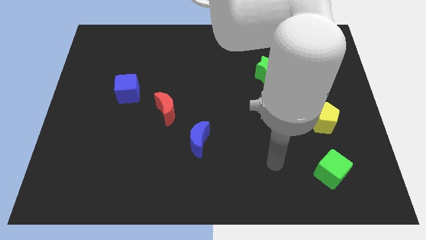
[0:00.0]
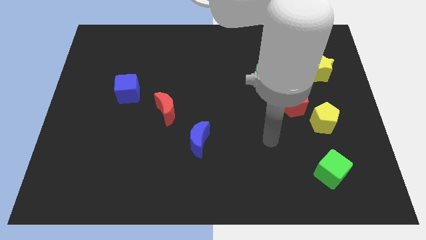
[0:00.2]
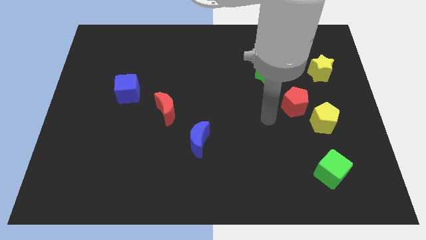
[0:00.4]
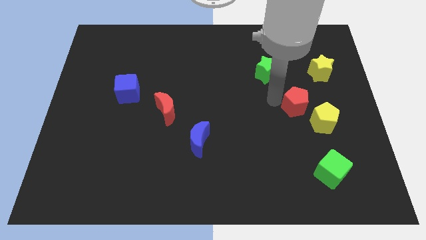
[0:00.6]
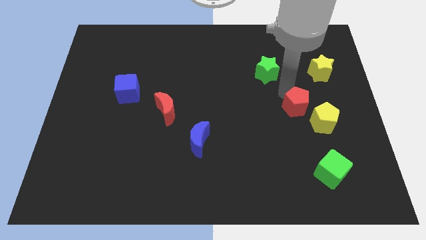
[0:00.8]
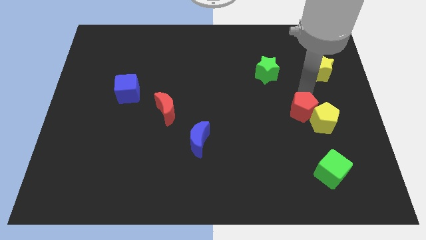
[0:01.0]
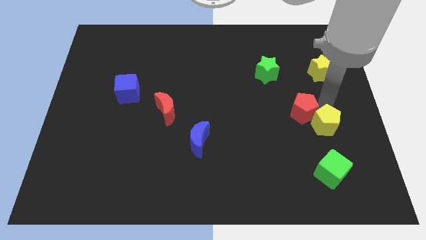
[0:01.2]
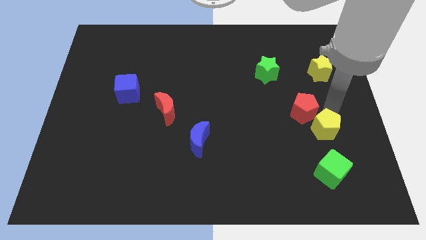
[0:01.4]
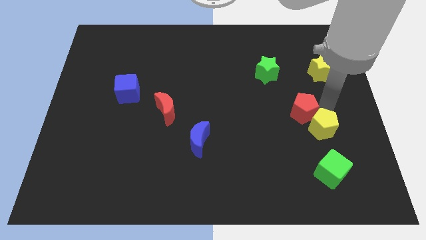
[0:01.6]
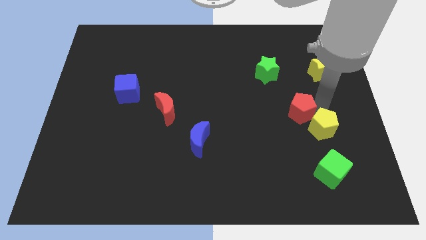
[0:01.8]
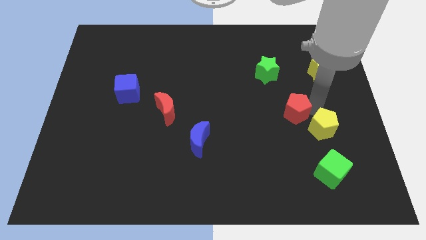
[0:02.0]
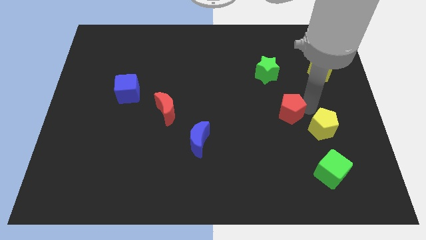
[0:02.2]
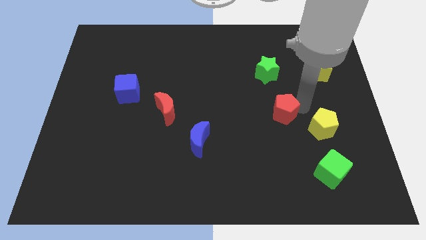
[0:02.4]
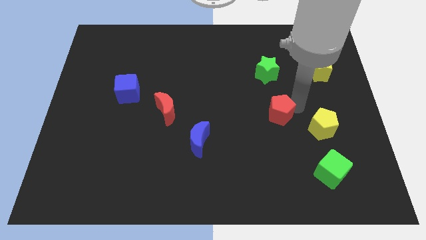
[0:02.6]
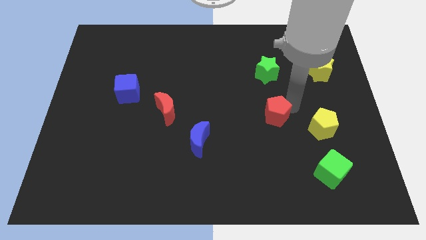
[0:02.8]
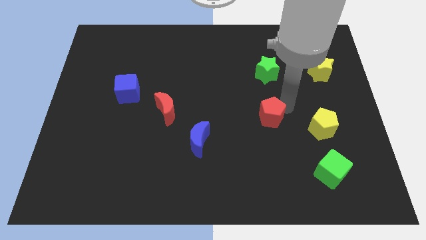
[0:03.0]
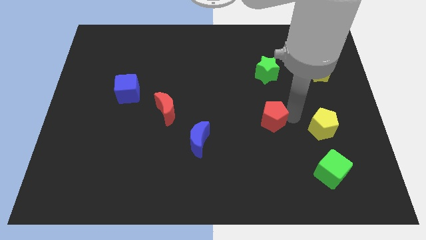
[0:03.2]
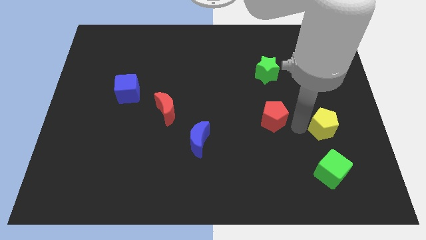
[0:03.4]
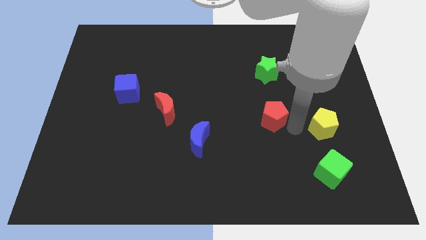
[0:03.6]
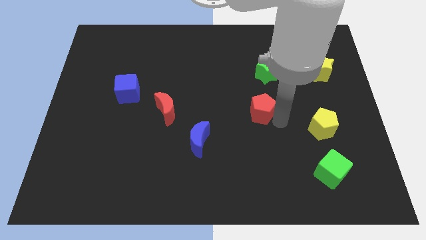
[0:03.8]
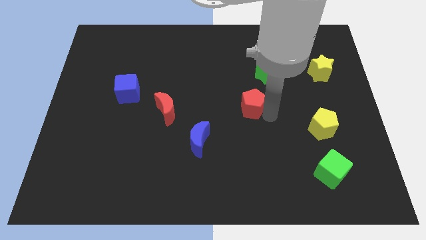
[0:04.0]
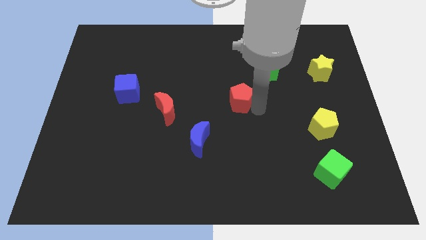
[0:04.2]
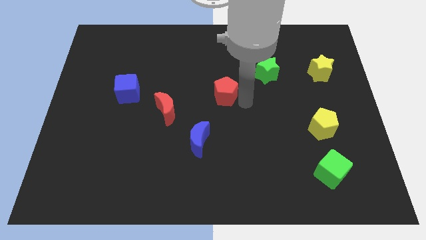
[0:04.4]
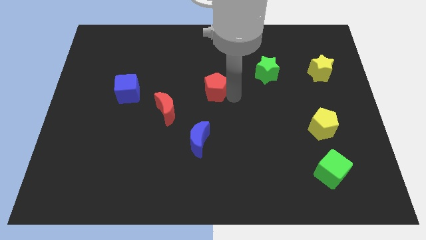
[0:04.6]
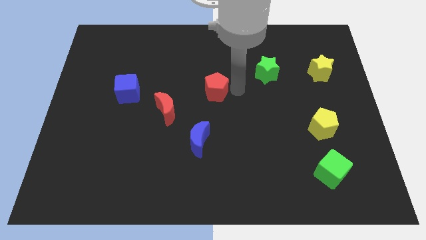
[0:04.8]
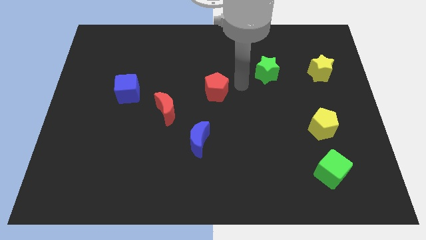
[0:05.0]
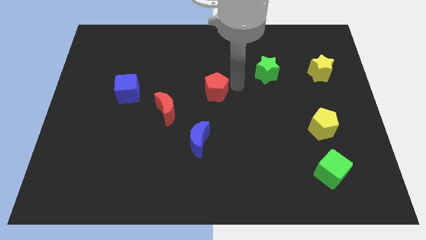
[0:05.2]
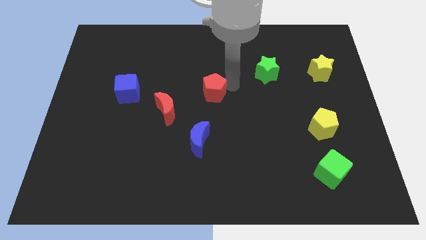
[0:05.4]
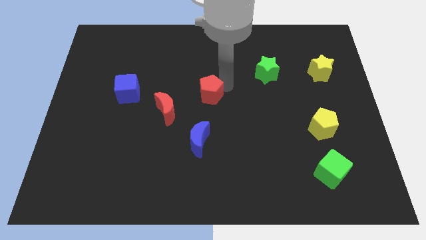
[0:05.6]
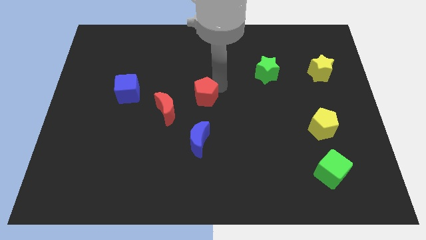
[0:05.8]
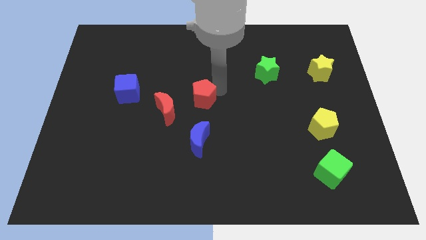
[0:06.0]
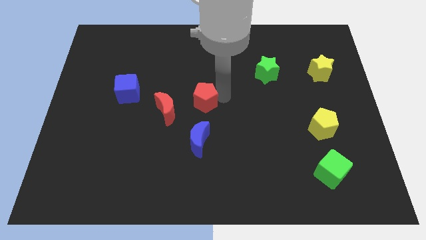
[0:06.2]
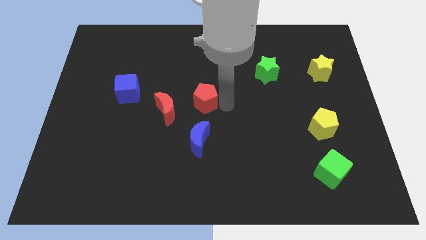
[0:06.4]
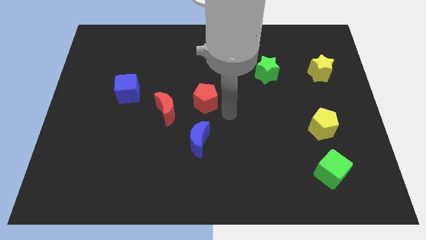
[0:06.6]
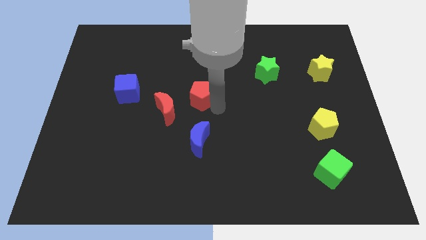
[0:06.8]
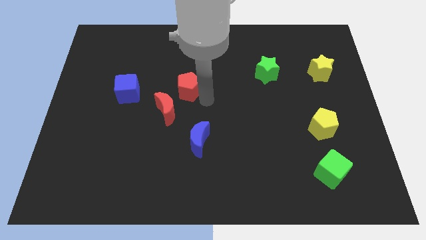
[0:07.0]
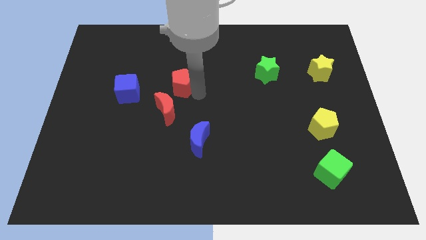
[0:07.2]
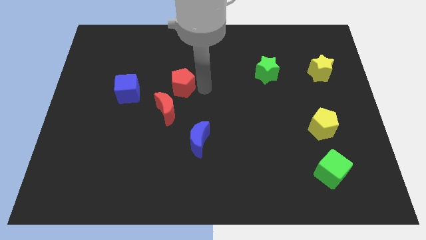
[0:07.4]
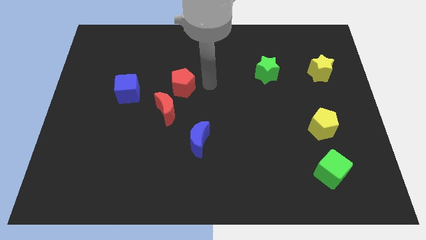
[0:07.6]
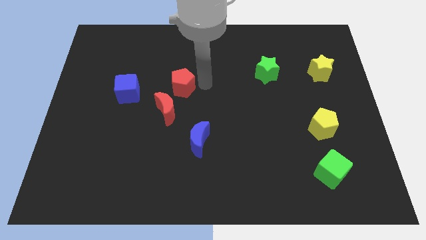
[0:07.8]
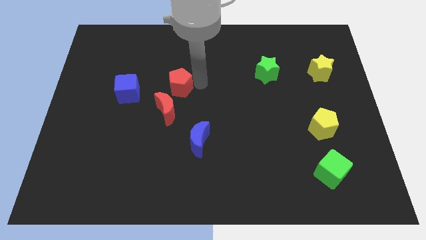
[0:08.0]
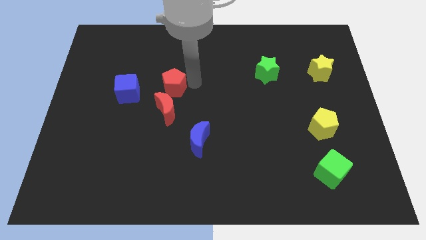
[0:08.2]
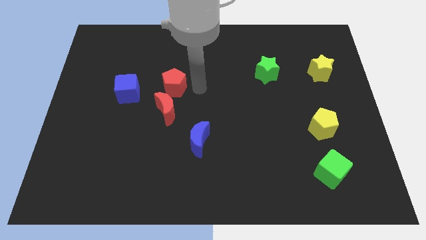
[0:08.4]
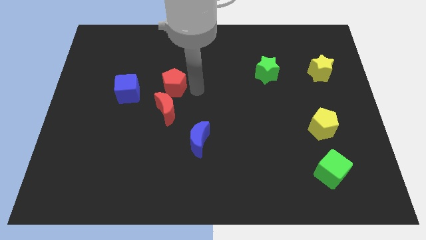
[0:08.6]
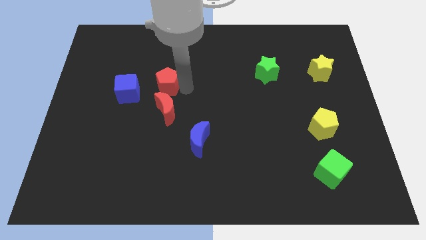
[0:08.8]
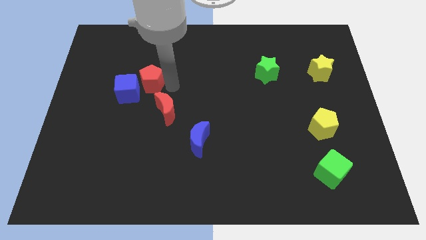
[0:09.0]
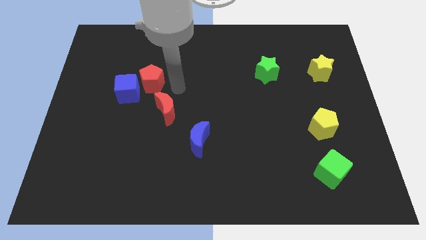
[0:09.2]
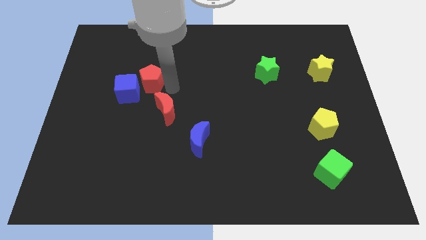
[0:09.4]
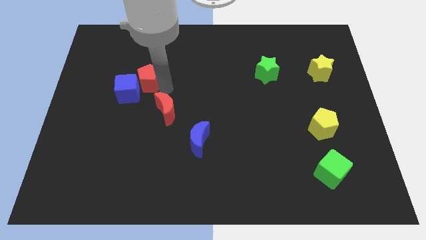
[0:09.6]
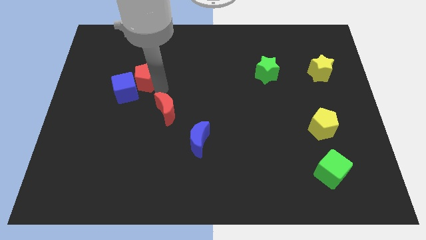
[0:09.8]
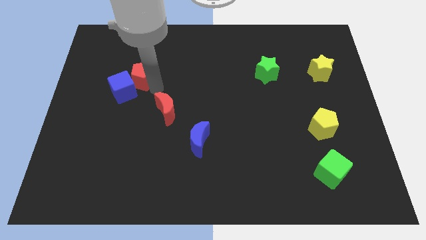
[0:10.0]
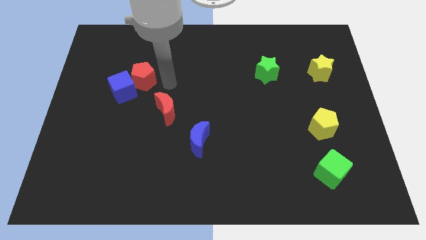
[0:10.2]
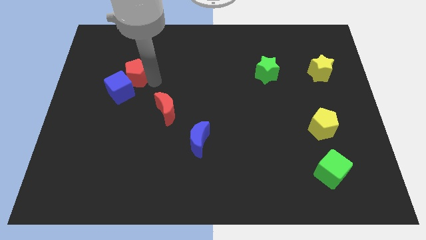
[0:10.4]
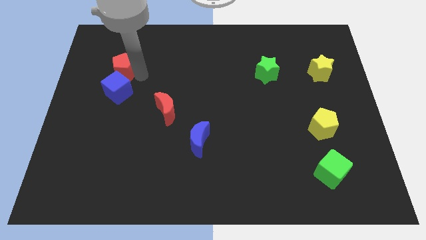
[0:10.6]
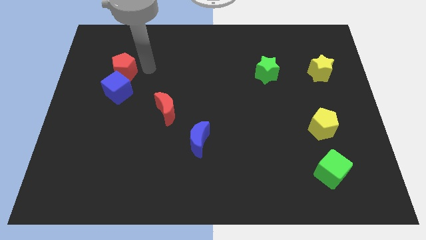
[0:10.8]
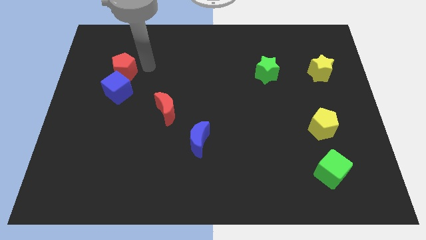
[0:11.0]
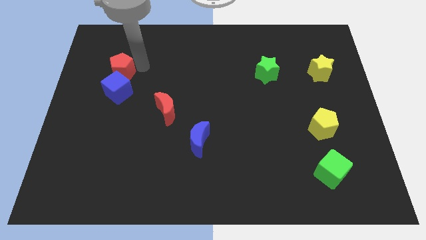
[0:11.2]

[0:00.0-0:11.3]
push the red pentagon to the top left side of the blue cube
